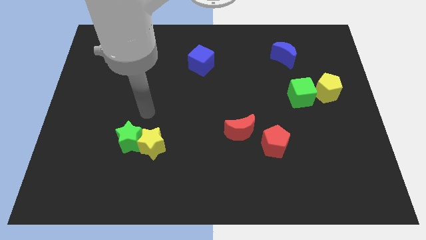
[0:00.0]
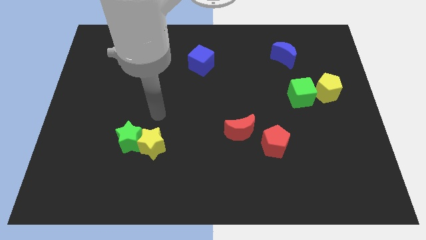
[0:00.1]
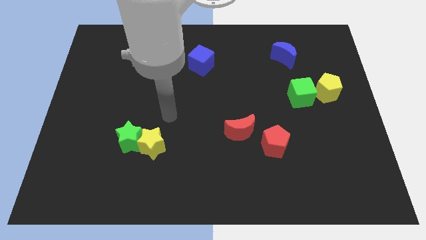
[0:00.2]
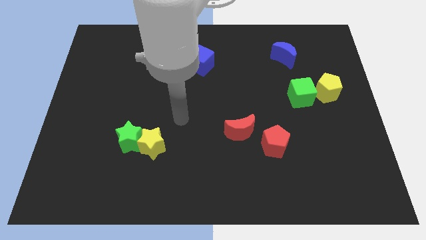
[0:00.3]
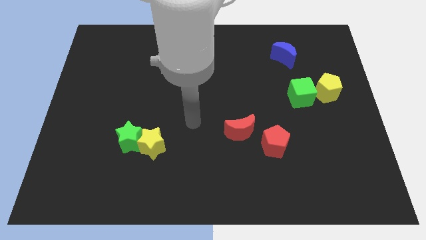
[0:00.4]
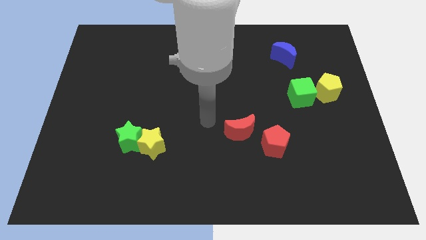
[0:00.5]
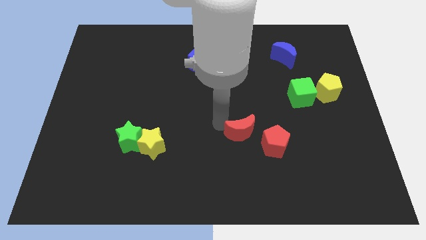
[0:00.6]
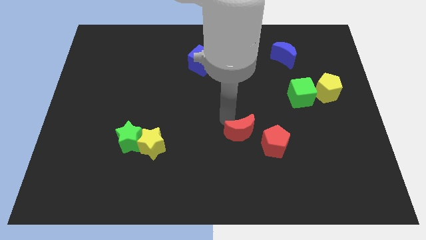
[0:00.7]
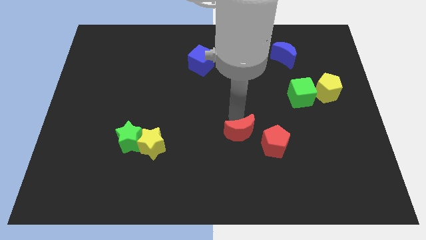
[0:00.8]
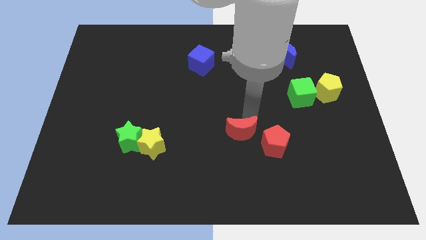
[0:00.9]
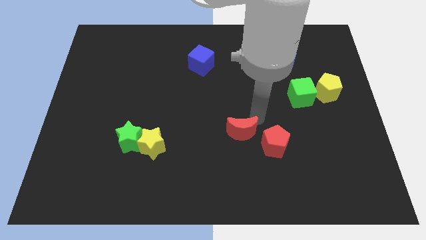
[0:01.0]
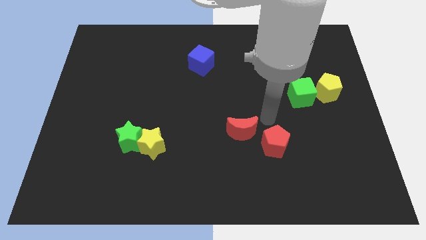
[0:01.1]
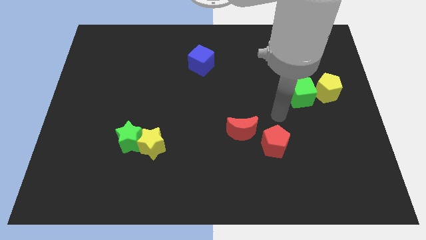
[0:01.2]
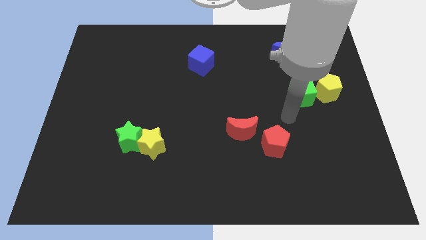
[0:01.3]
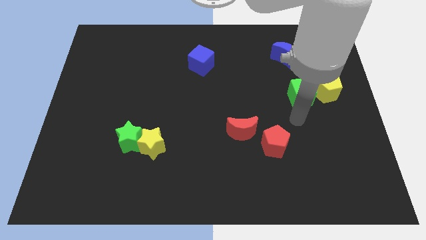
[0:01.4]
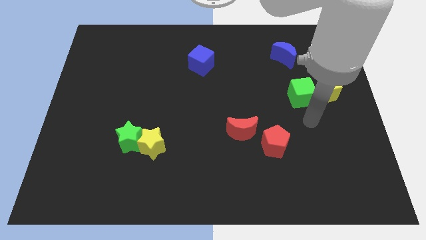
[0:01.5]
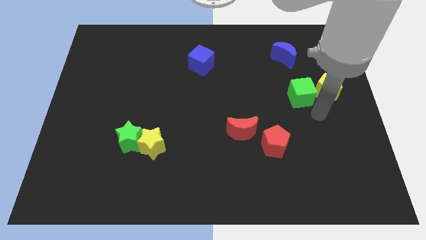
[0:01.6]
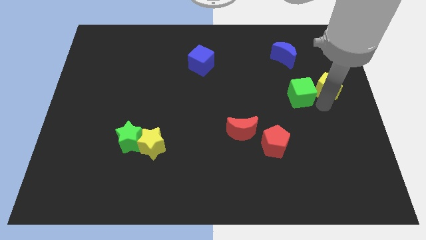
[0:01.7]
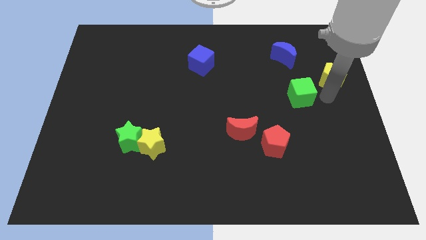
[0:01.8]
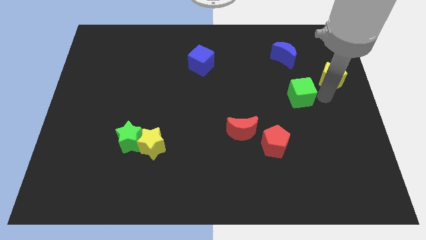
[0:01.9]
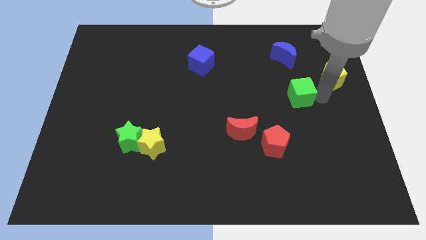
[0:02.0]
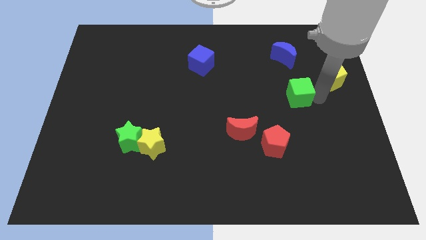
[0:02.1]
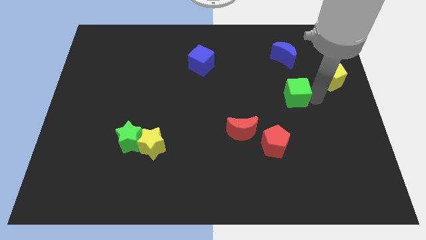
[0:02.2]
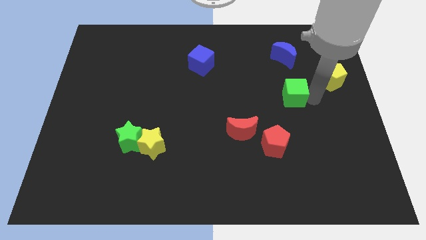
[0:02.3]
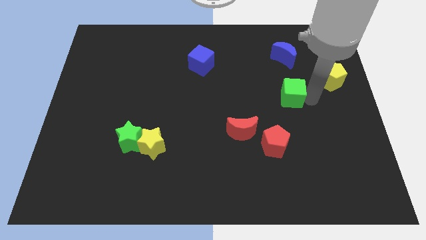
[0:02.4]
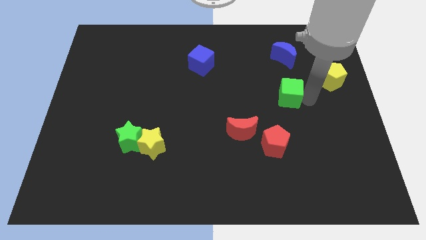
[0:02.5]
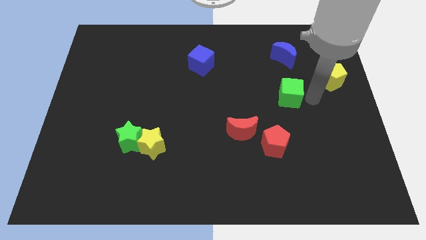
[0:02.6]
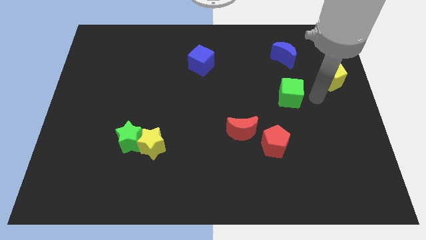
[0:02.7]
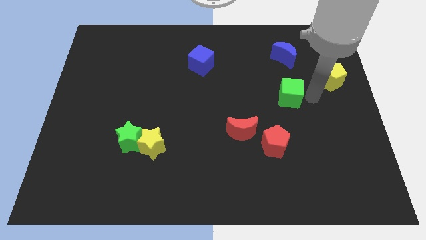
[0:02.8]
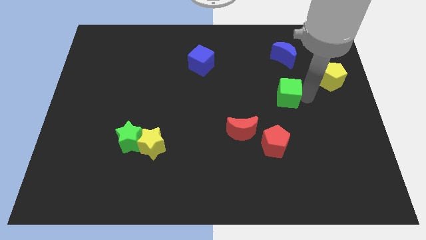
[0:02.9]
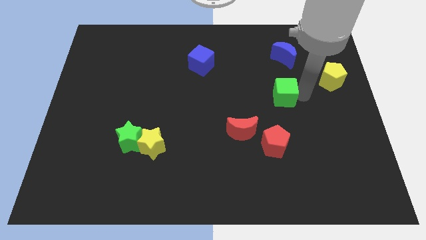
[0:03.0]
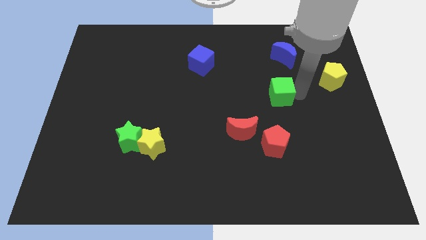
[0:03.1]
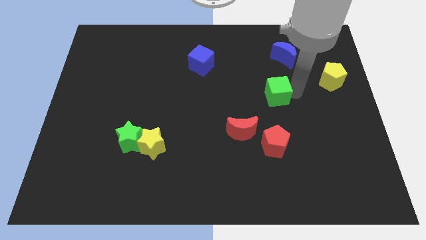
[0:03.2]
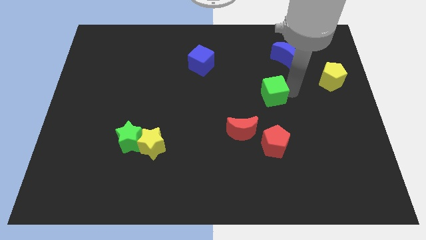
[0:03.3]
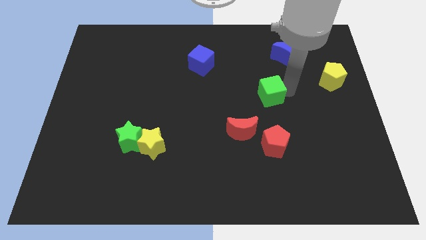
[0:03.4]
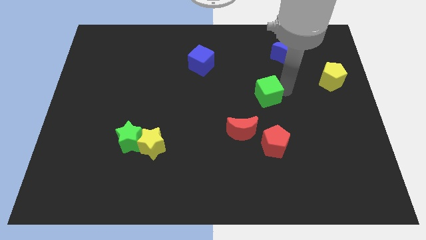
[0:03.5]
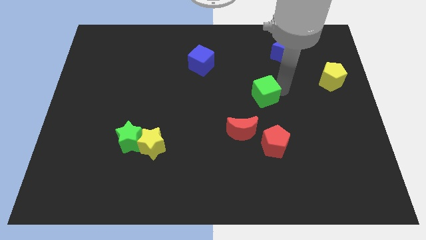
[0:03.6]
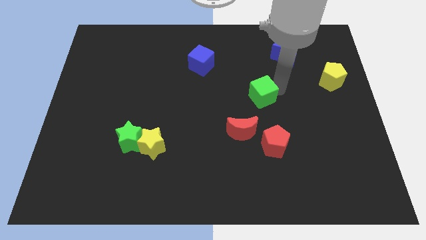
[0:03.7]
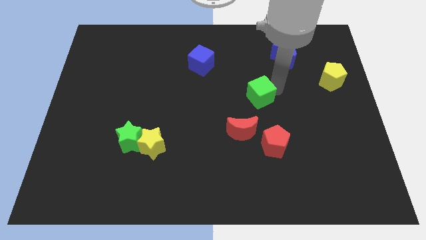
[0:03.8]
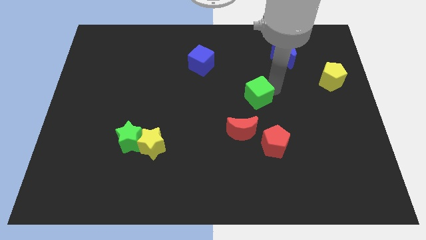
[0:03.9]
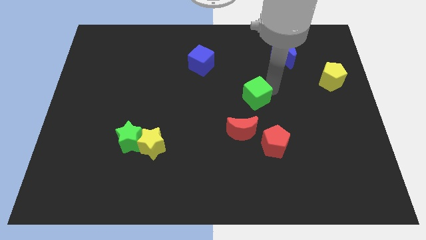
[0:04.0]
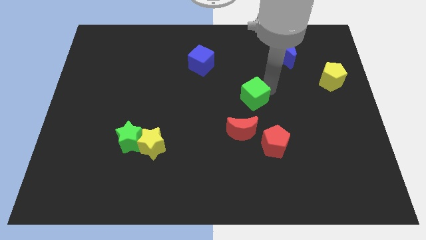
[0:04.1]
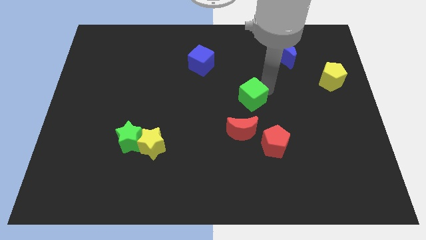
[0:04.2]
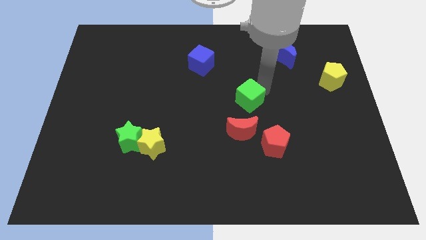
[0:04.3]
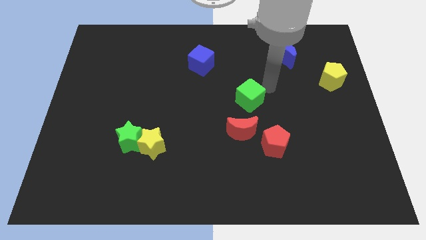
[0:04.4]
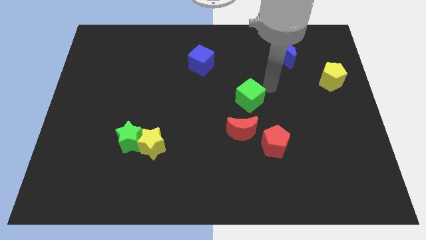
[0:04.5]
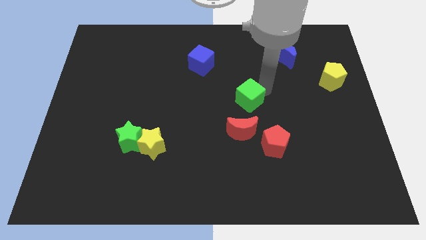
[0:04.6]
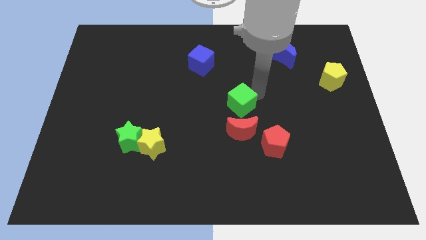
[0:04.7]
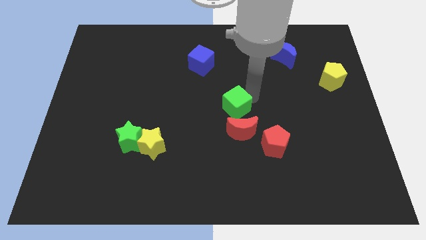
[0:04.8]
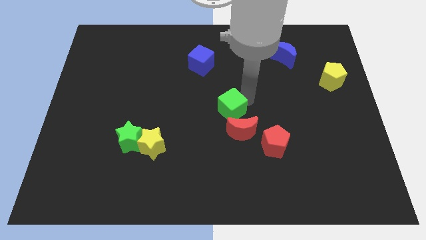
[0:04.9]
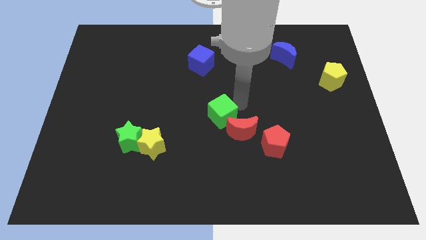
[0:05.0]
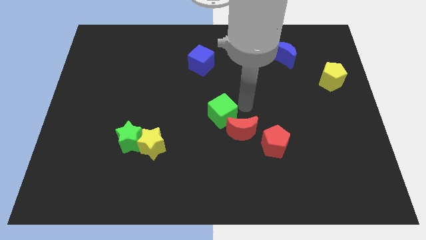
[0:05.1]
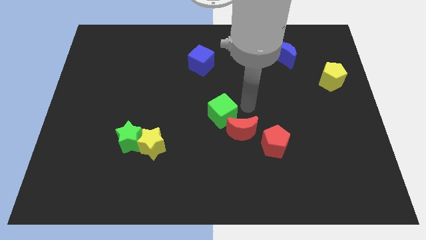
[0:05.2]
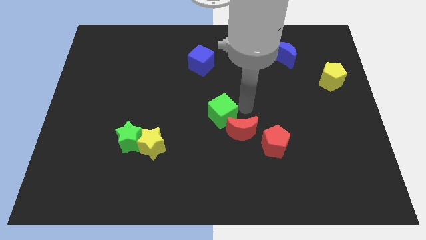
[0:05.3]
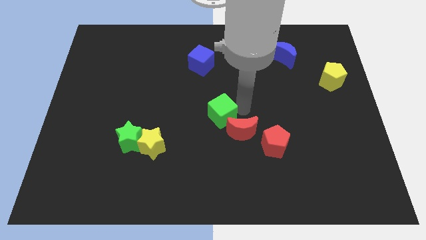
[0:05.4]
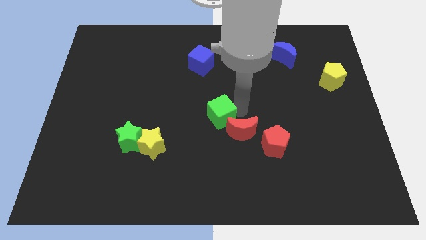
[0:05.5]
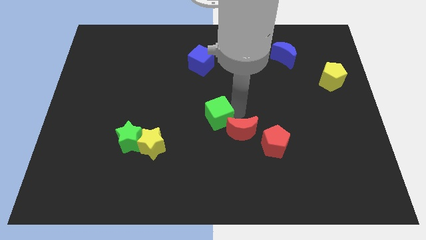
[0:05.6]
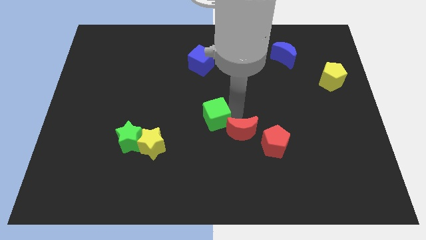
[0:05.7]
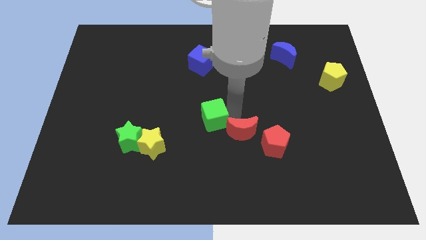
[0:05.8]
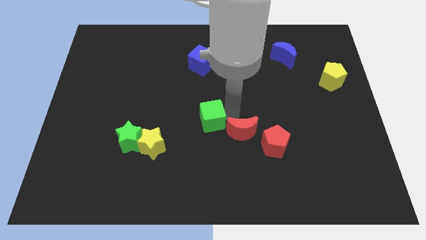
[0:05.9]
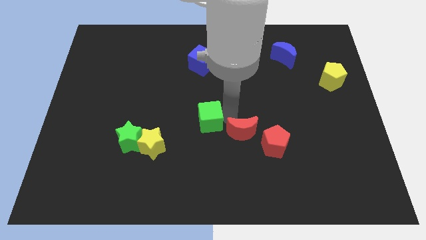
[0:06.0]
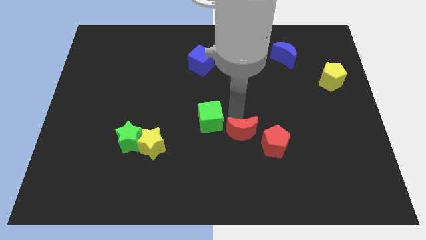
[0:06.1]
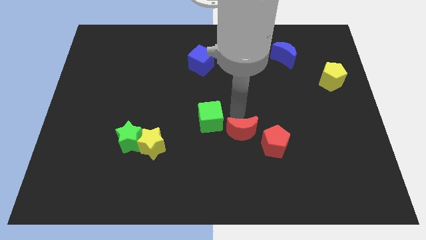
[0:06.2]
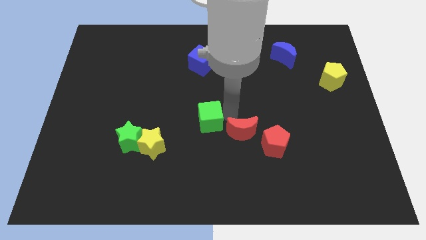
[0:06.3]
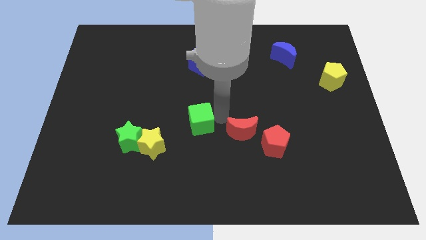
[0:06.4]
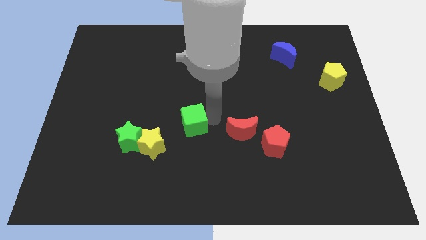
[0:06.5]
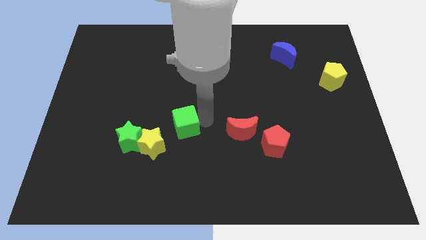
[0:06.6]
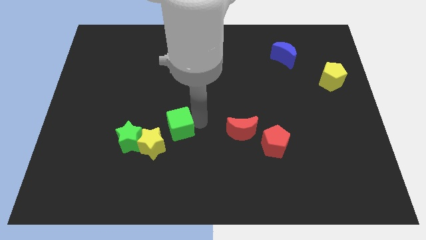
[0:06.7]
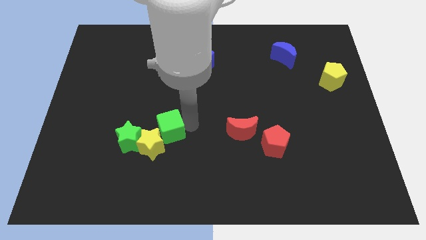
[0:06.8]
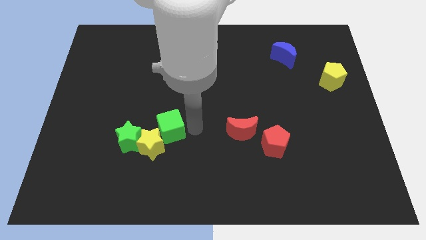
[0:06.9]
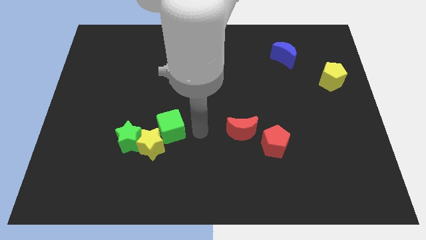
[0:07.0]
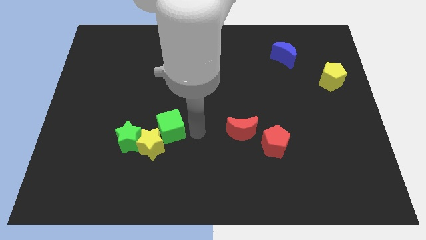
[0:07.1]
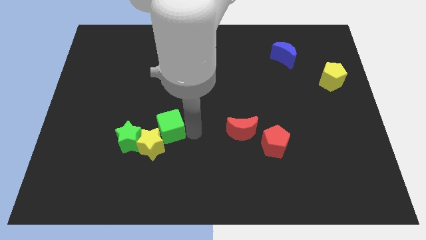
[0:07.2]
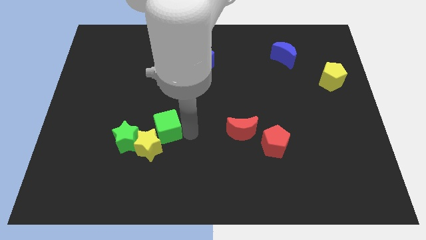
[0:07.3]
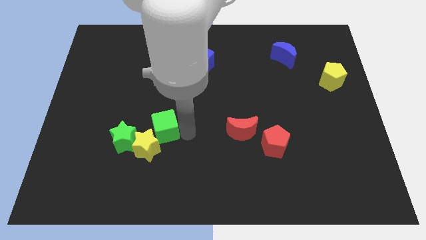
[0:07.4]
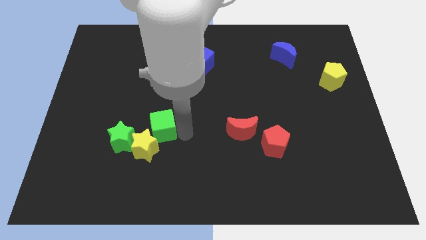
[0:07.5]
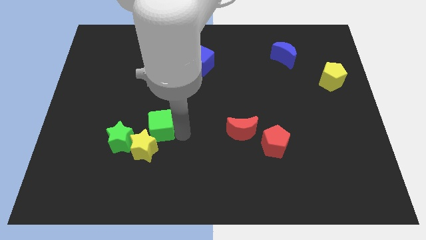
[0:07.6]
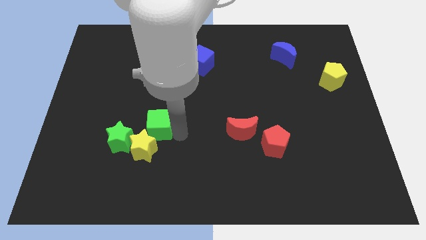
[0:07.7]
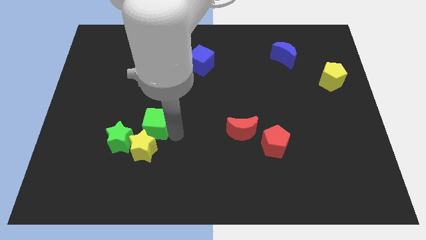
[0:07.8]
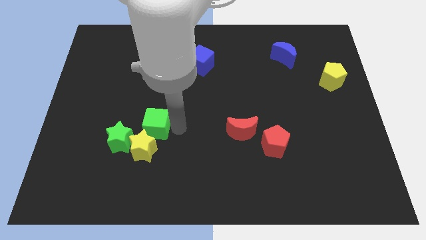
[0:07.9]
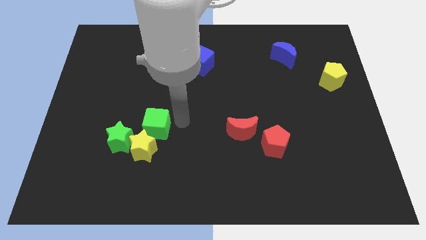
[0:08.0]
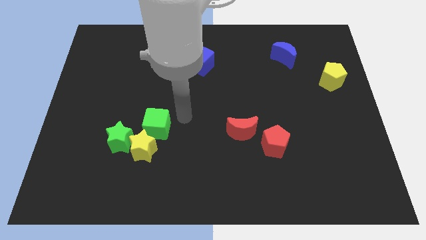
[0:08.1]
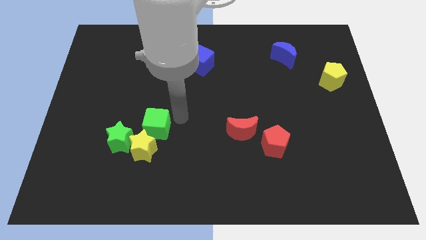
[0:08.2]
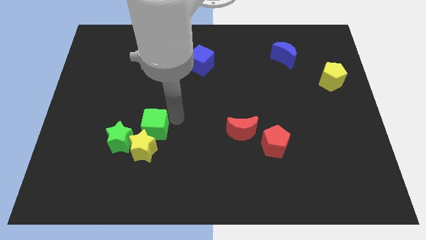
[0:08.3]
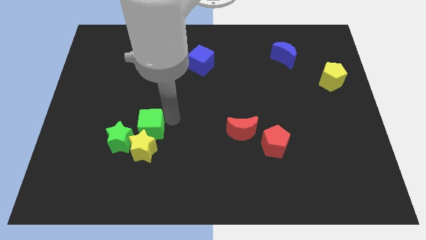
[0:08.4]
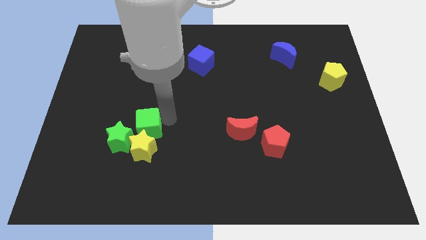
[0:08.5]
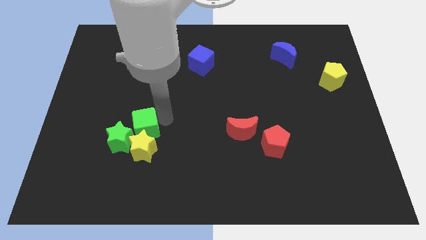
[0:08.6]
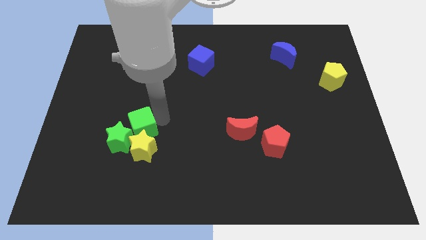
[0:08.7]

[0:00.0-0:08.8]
put the green cube to the green star
